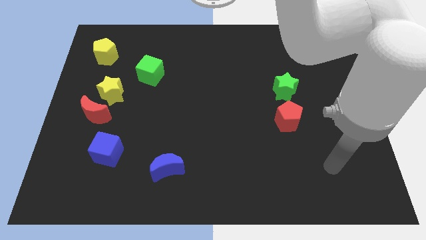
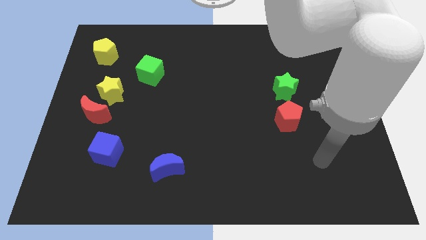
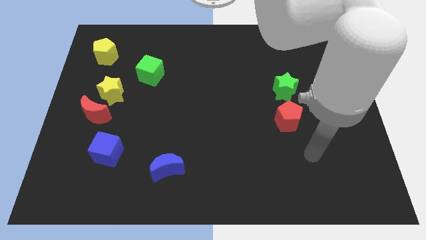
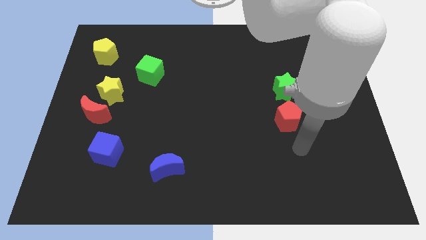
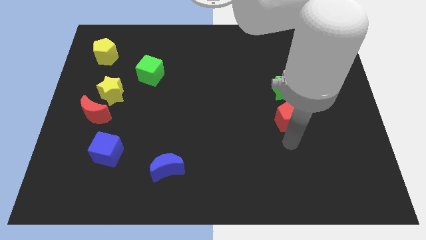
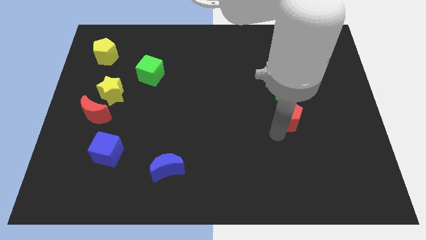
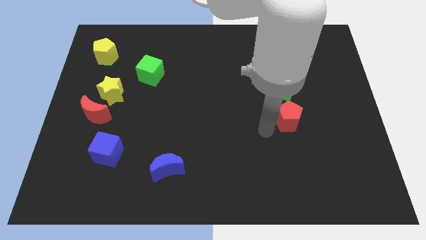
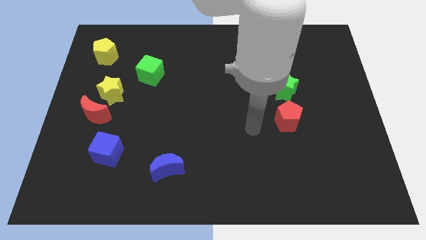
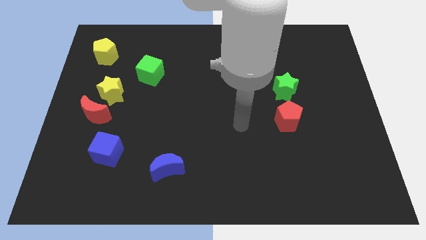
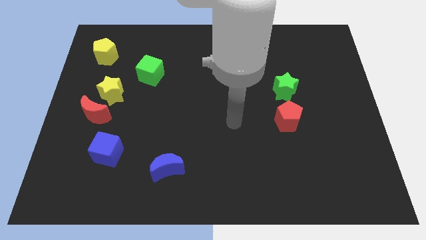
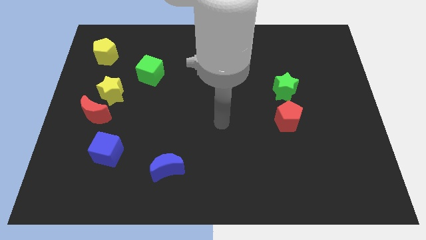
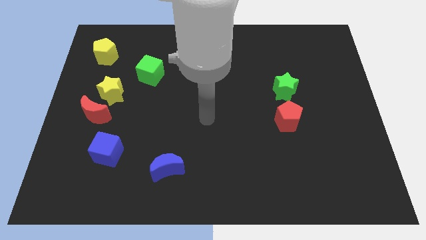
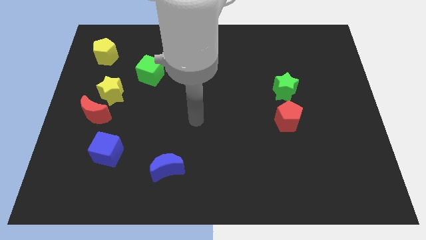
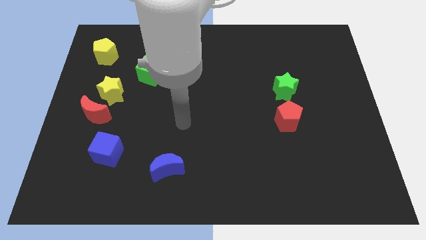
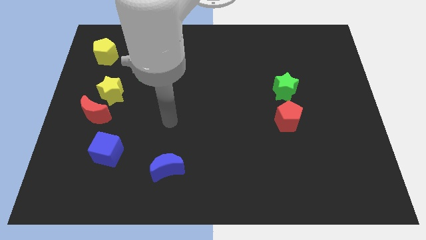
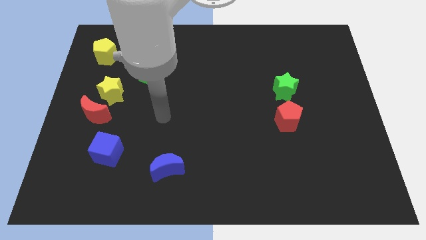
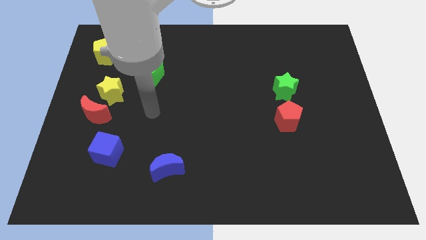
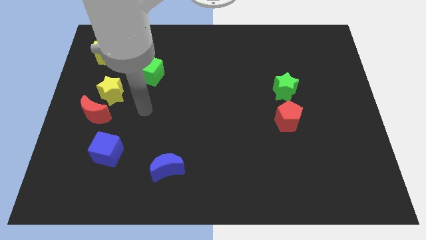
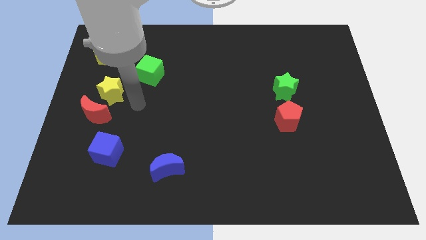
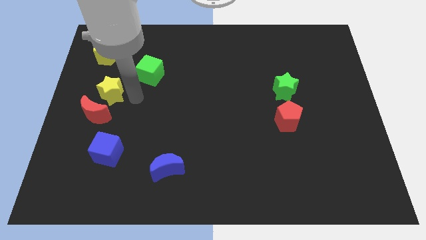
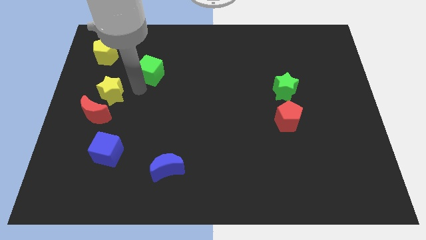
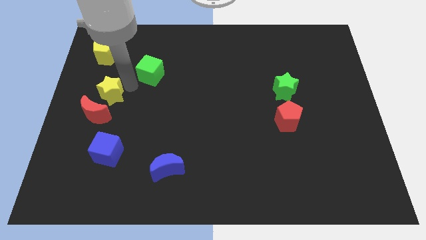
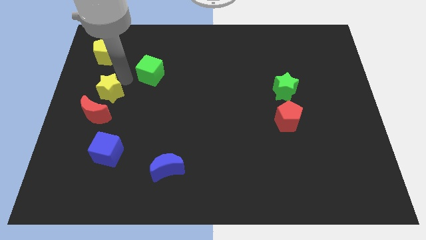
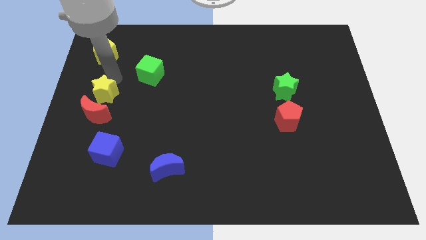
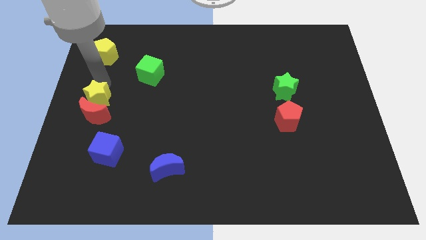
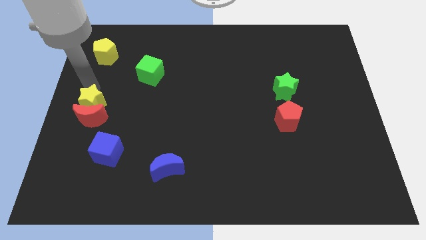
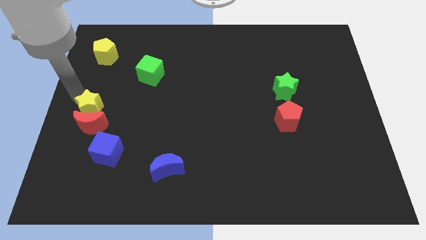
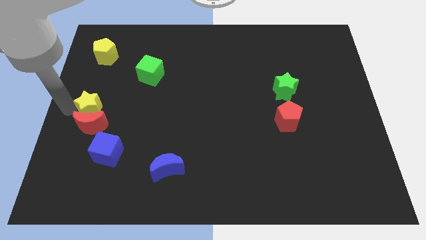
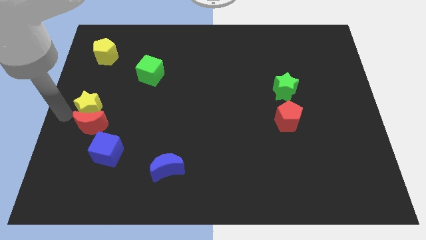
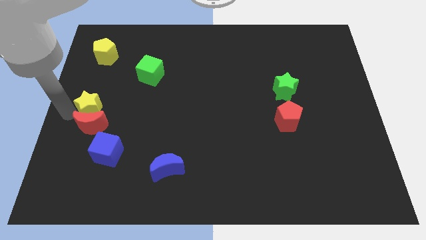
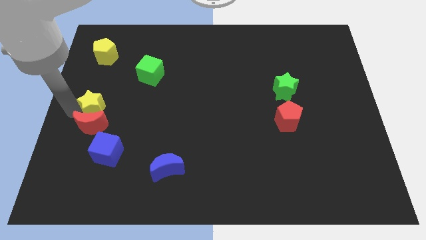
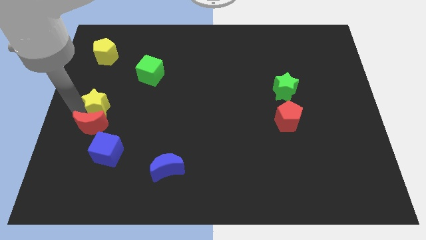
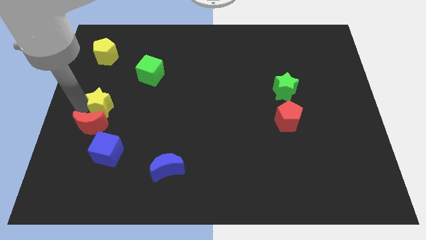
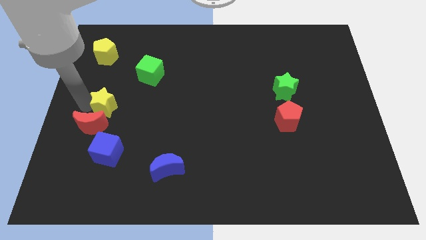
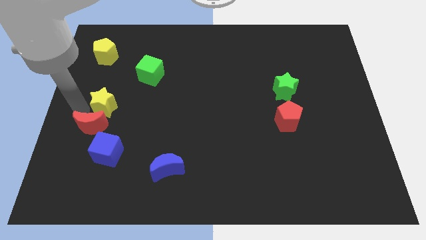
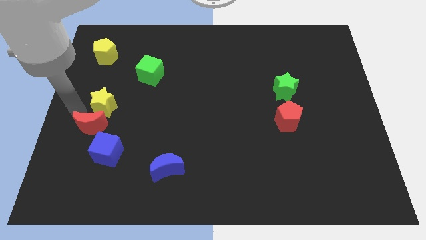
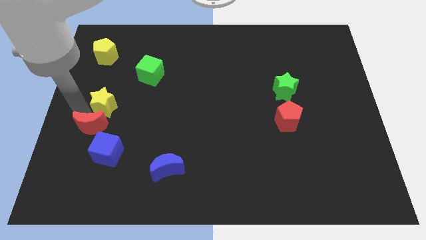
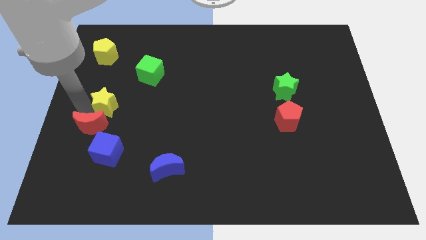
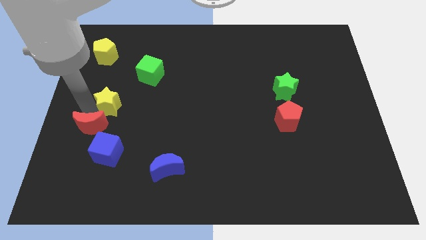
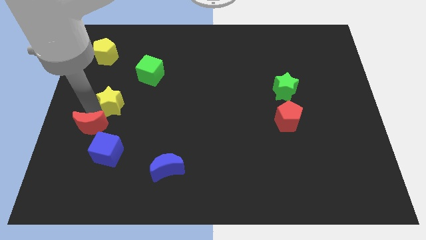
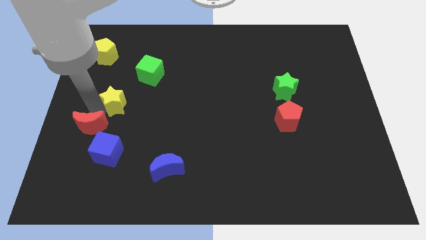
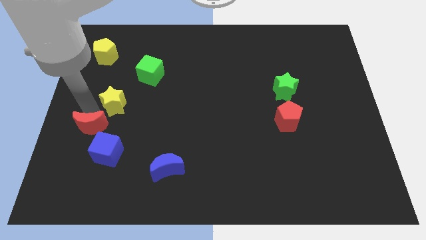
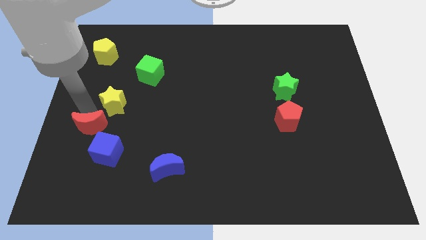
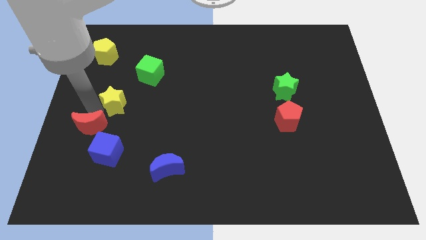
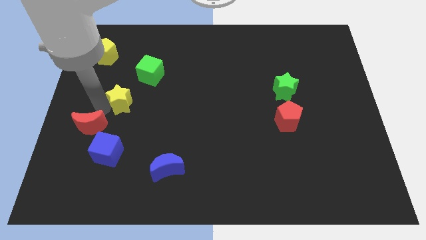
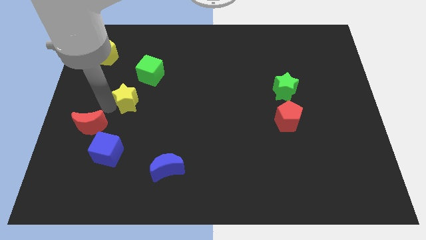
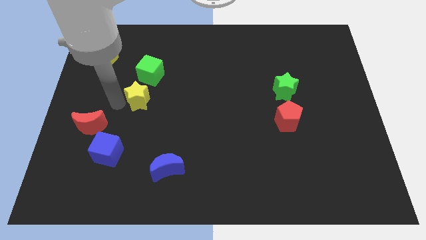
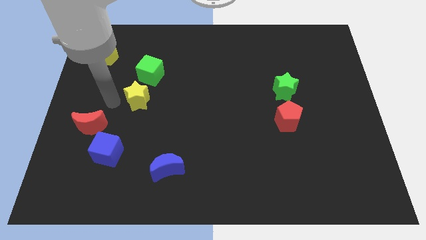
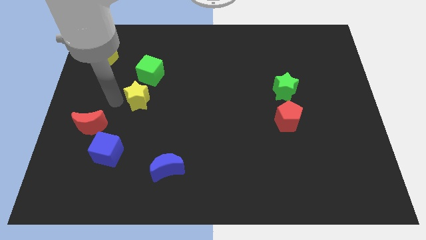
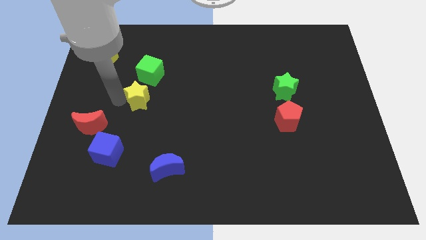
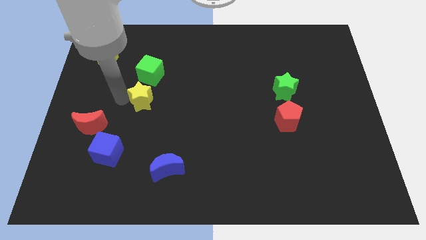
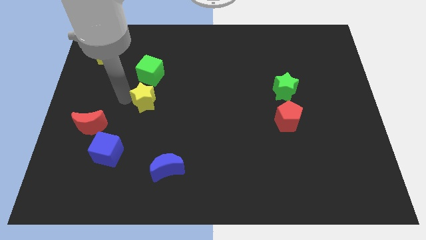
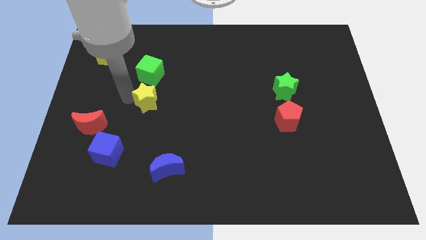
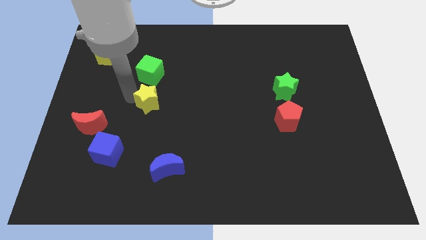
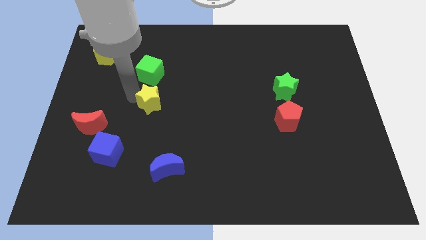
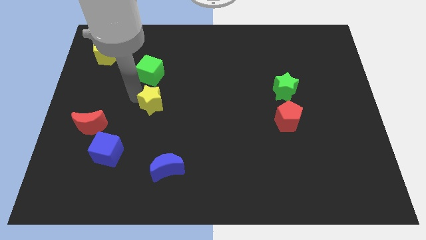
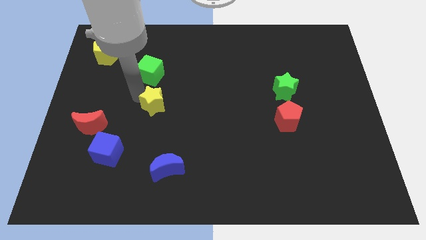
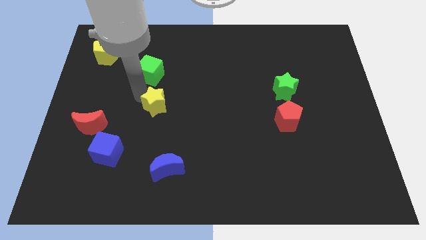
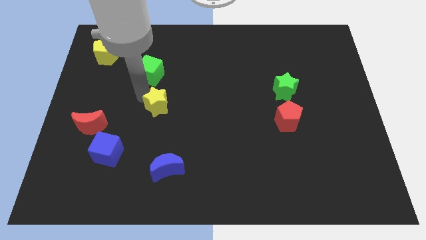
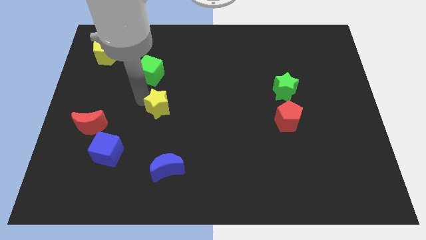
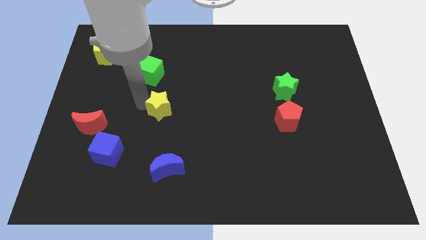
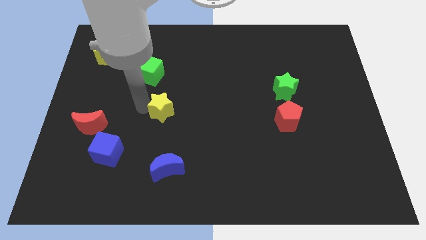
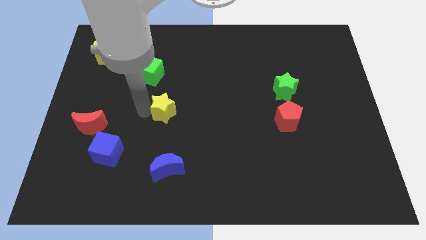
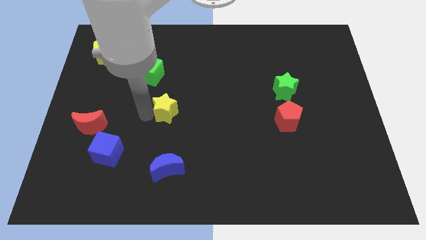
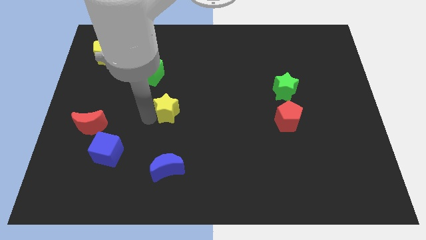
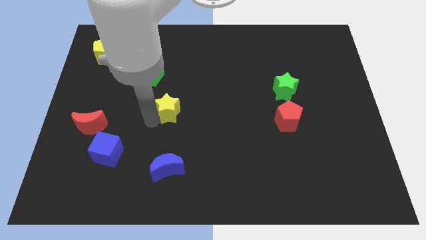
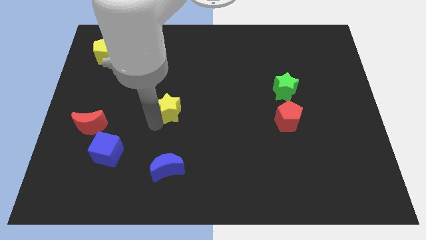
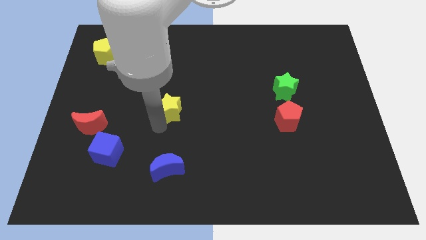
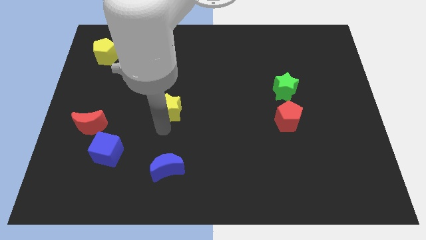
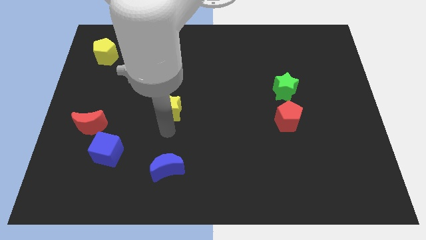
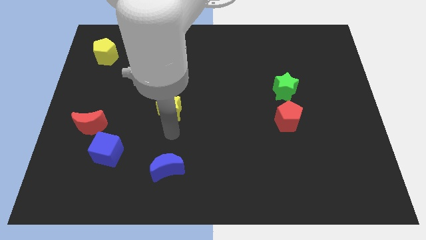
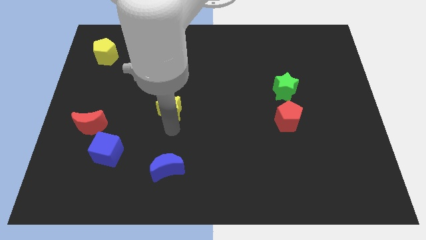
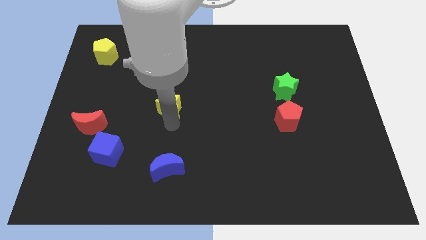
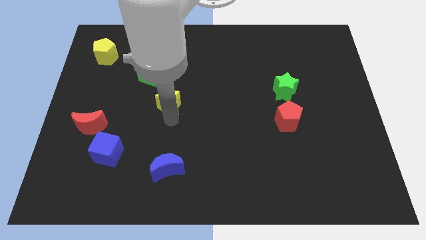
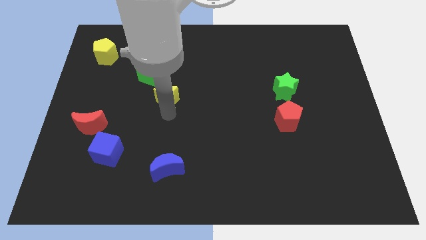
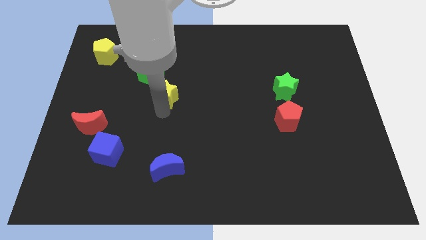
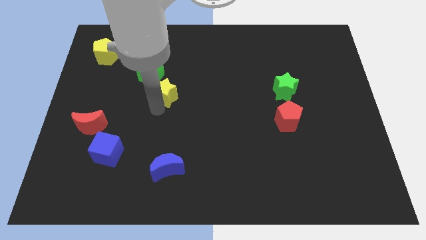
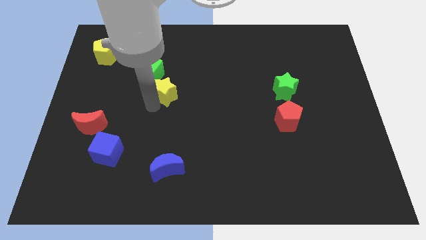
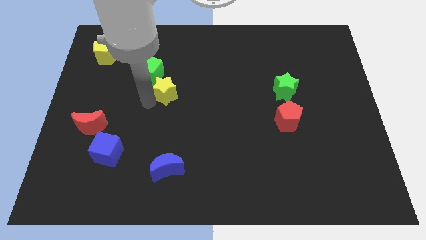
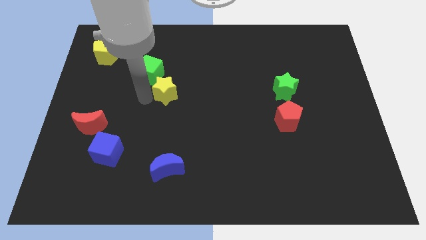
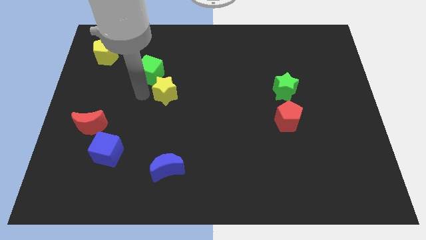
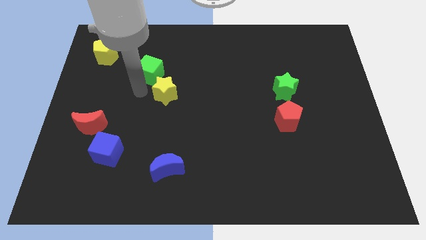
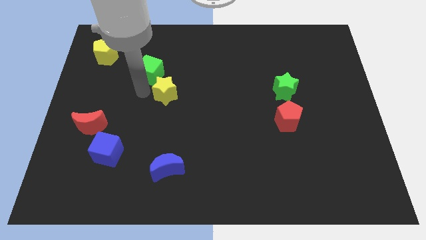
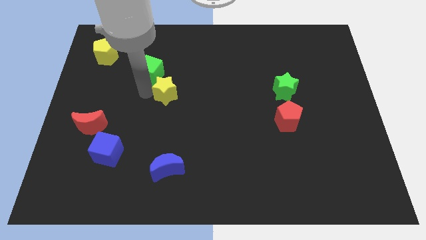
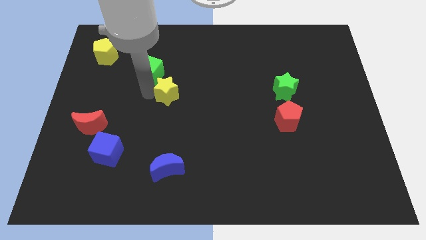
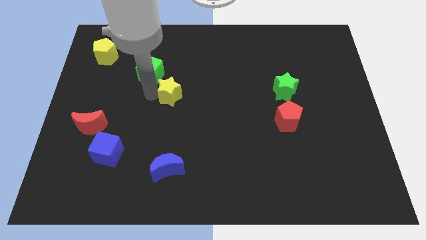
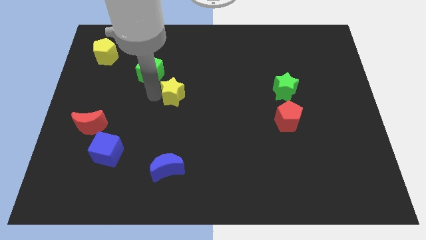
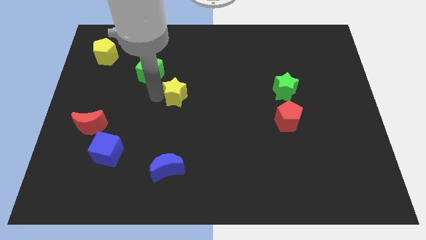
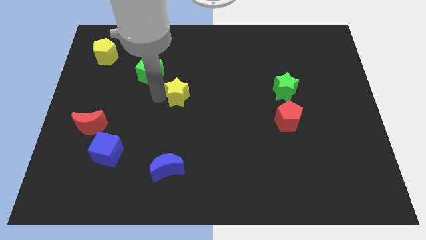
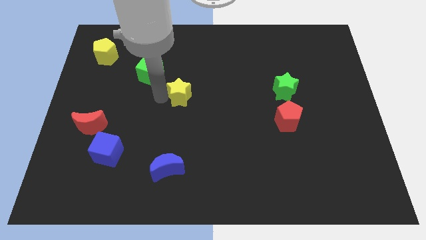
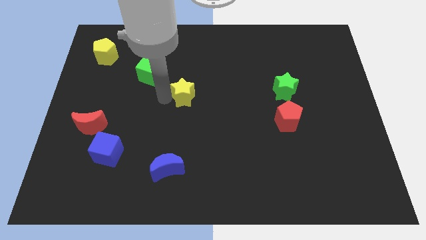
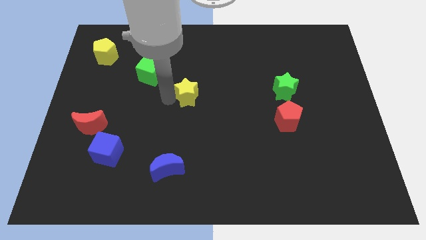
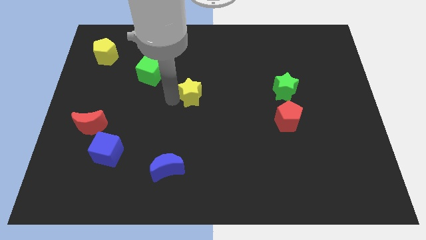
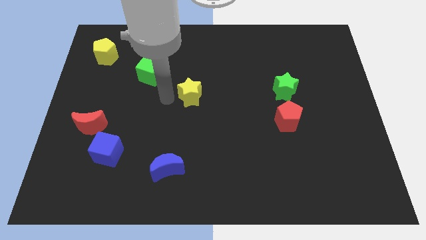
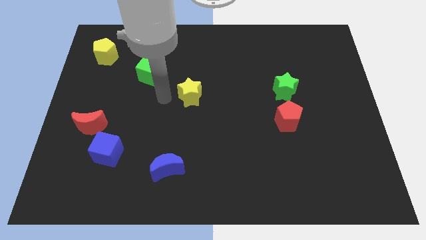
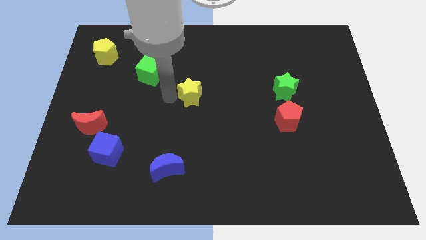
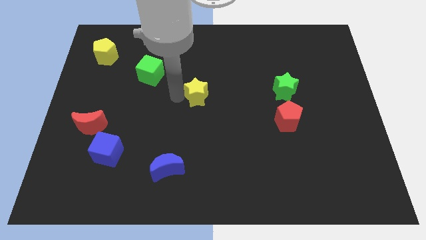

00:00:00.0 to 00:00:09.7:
move the yellow star right
